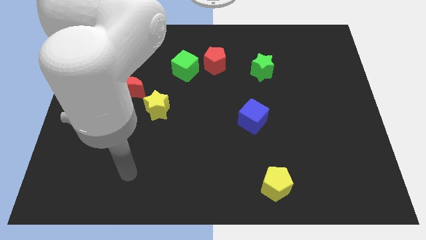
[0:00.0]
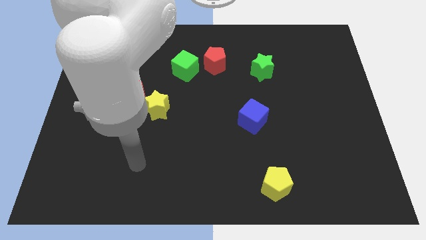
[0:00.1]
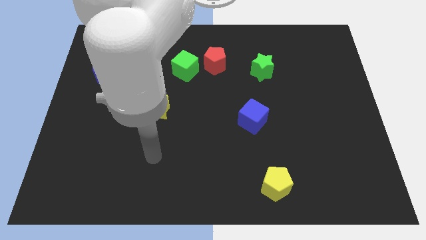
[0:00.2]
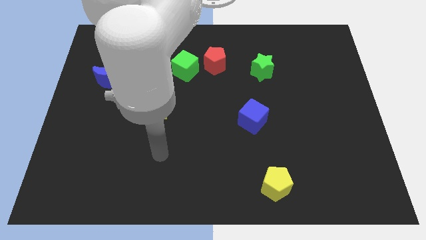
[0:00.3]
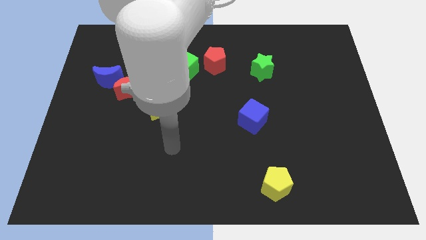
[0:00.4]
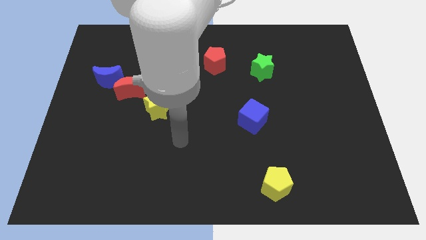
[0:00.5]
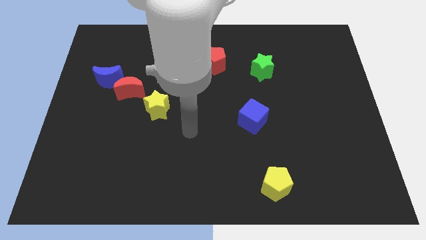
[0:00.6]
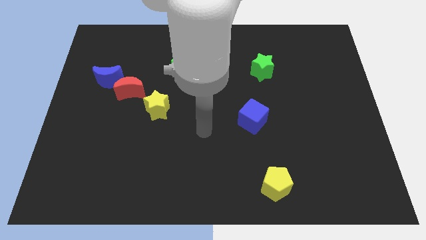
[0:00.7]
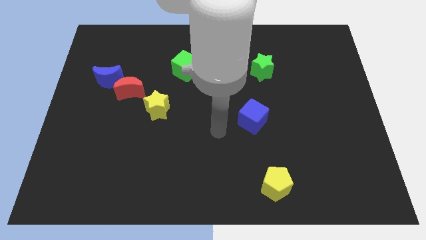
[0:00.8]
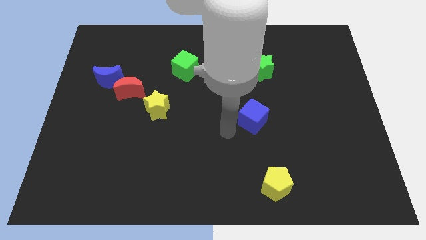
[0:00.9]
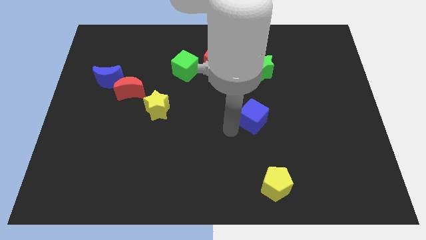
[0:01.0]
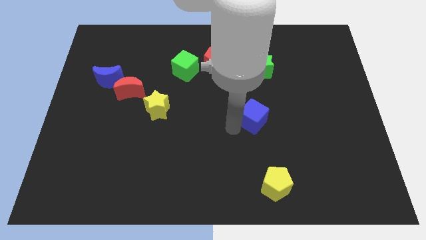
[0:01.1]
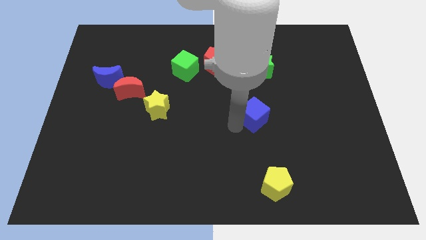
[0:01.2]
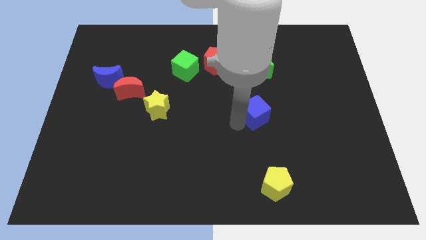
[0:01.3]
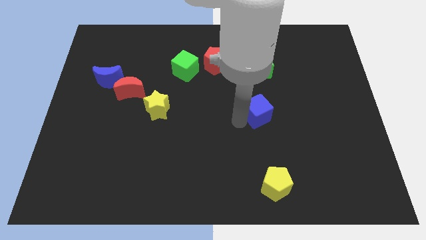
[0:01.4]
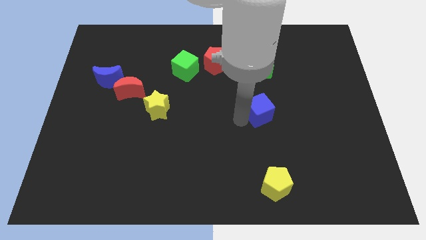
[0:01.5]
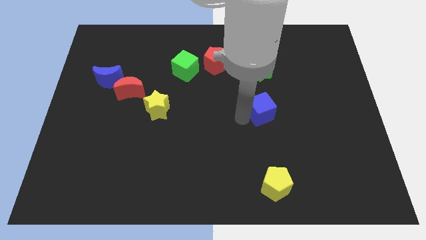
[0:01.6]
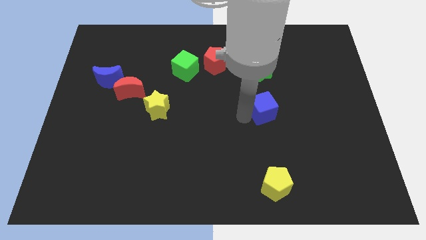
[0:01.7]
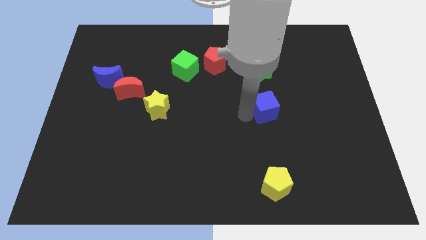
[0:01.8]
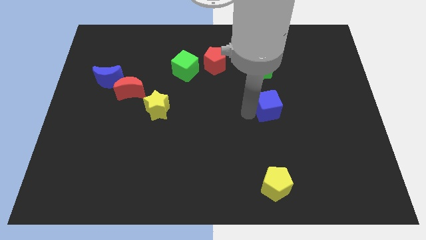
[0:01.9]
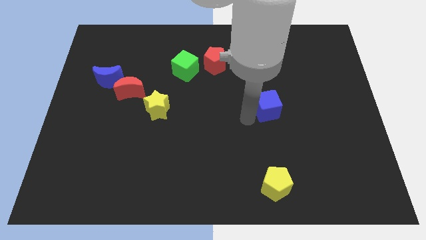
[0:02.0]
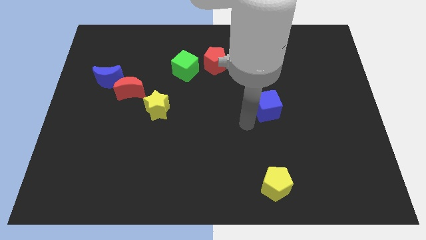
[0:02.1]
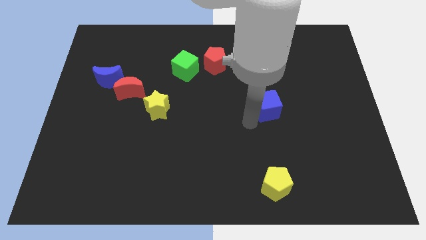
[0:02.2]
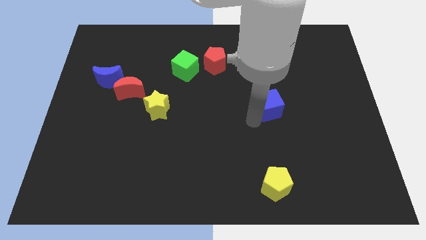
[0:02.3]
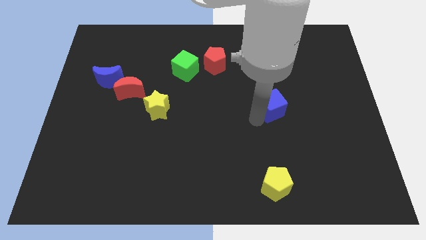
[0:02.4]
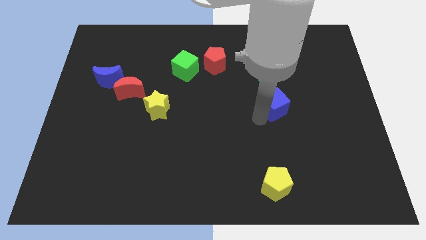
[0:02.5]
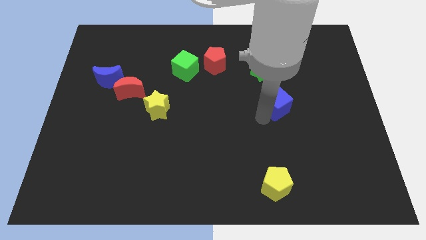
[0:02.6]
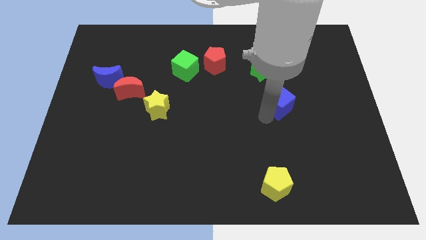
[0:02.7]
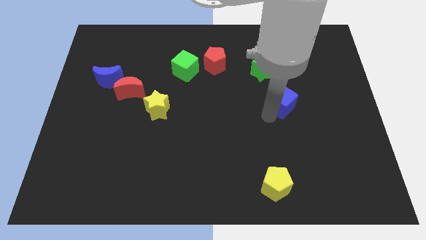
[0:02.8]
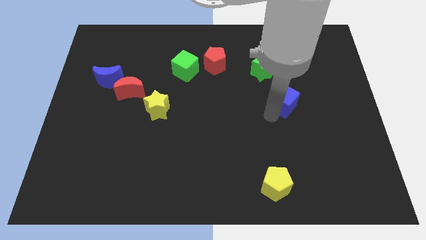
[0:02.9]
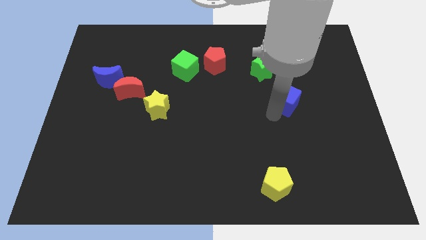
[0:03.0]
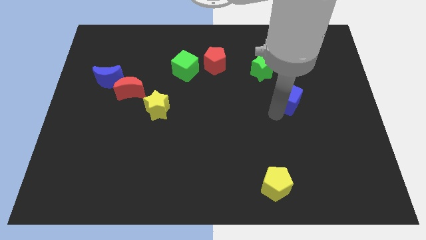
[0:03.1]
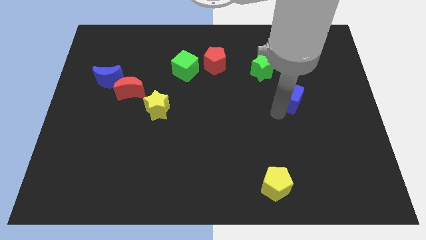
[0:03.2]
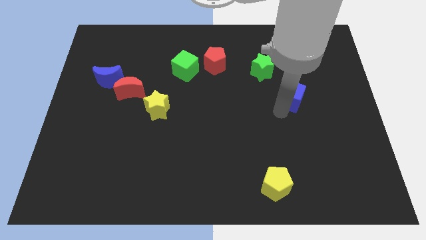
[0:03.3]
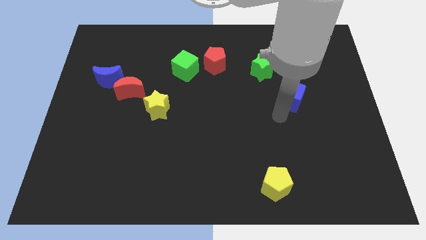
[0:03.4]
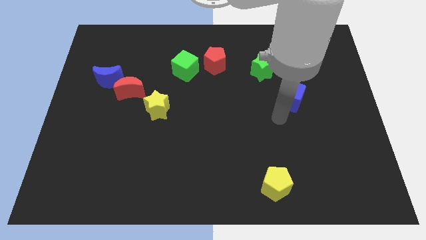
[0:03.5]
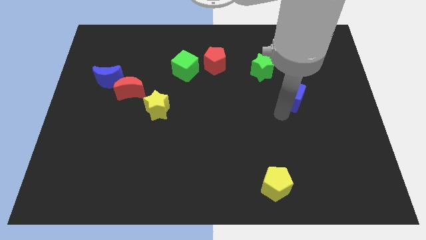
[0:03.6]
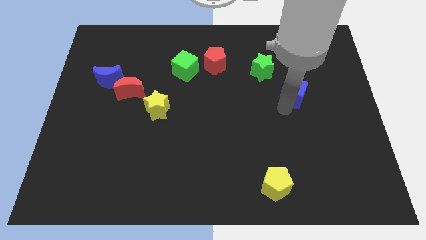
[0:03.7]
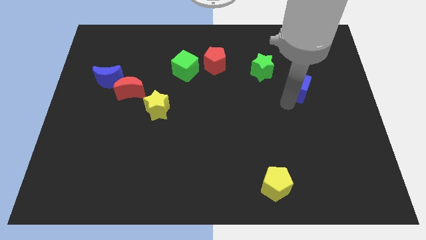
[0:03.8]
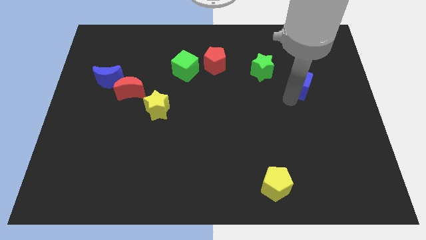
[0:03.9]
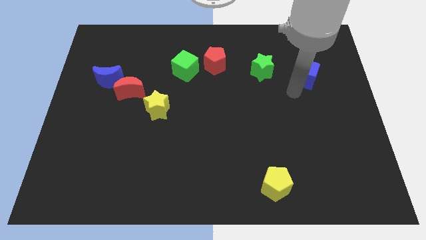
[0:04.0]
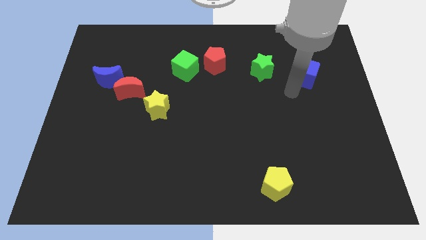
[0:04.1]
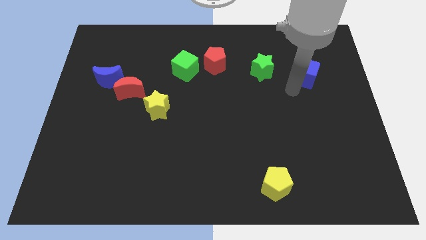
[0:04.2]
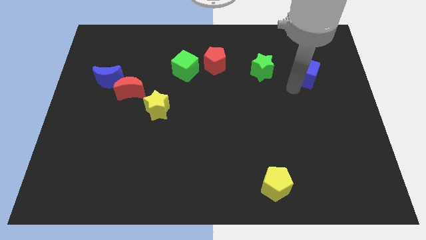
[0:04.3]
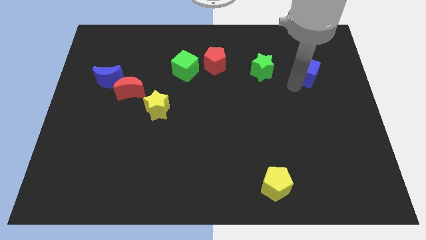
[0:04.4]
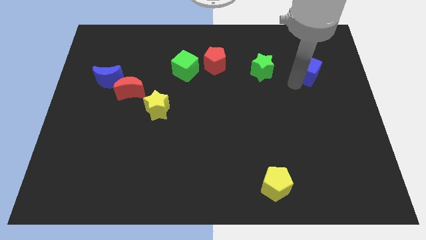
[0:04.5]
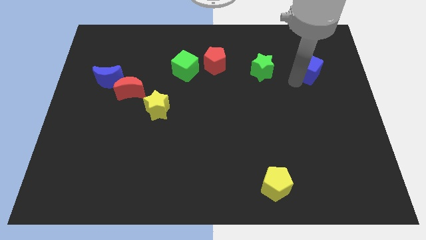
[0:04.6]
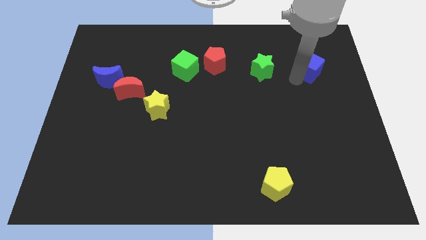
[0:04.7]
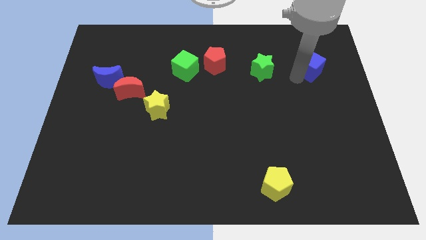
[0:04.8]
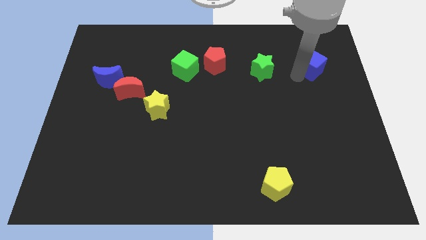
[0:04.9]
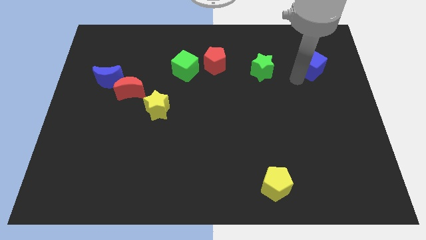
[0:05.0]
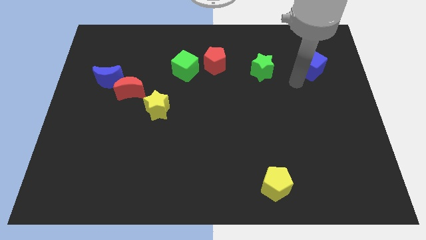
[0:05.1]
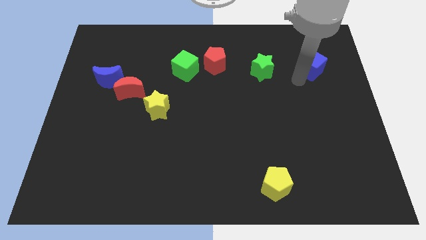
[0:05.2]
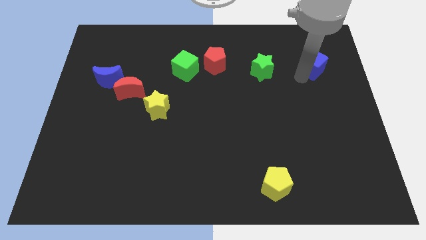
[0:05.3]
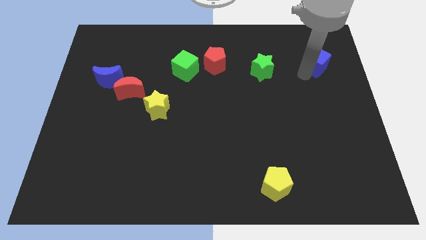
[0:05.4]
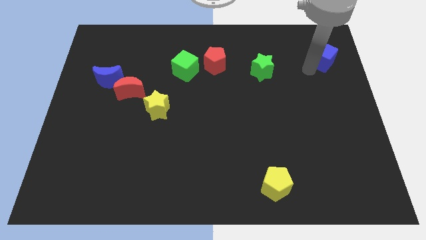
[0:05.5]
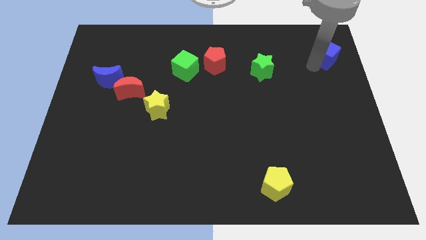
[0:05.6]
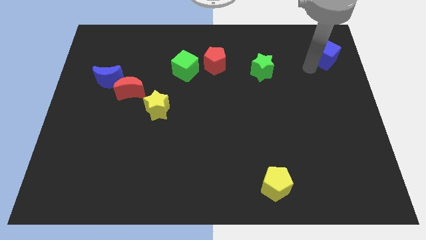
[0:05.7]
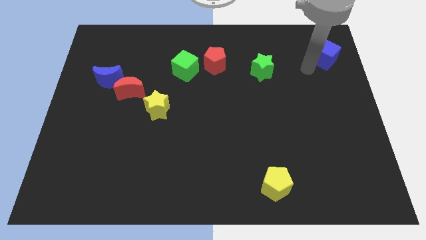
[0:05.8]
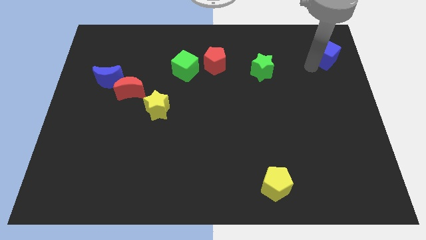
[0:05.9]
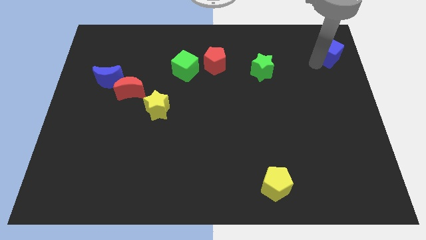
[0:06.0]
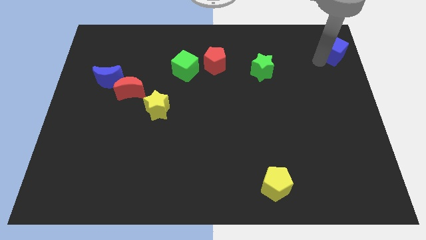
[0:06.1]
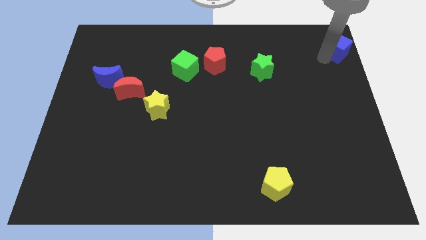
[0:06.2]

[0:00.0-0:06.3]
put the blue cube to the top right of the board
